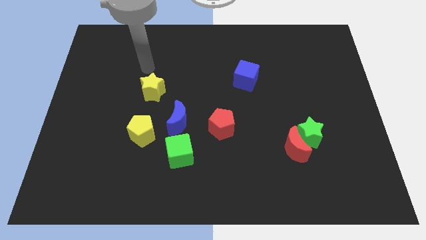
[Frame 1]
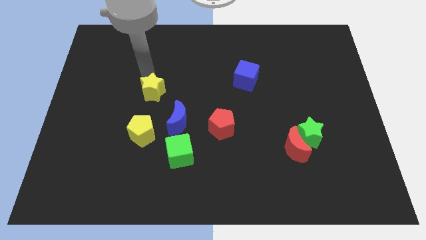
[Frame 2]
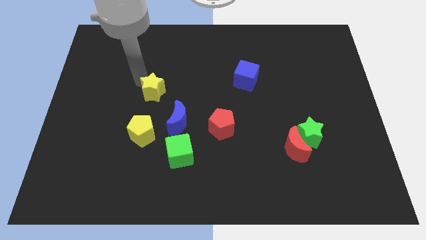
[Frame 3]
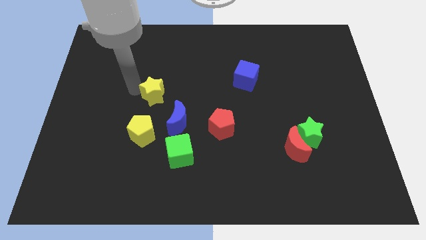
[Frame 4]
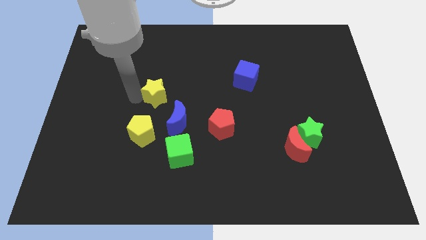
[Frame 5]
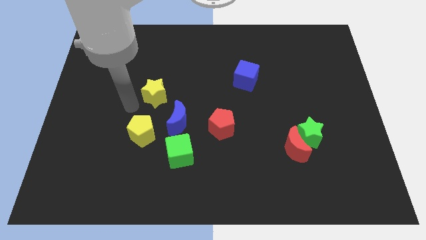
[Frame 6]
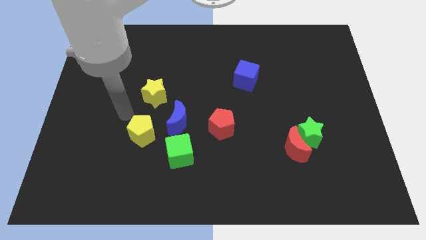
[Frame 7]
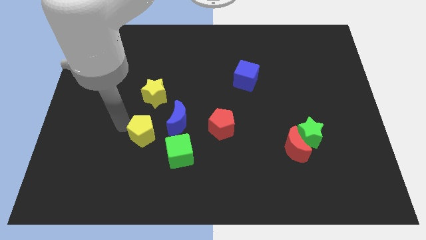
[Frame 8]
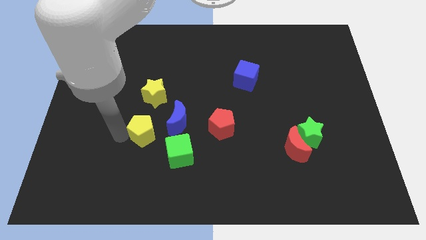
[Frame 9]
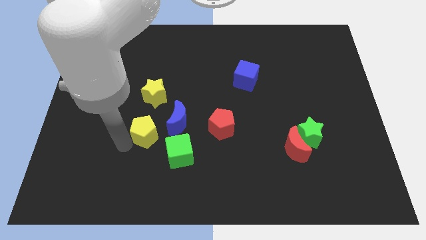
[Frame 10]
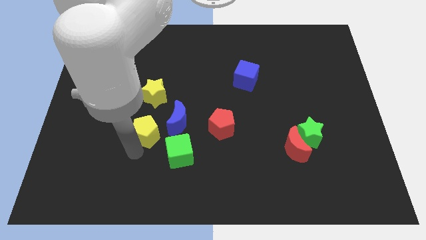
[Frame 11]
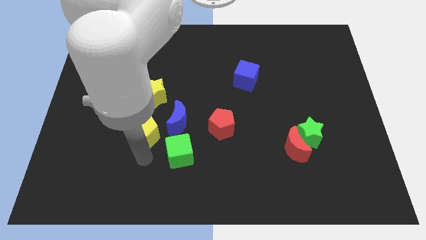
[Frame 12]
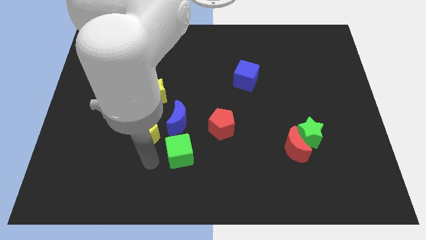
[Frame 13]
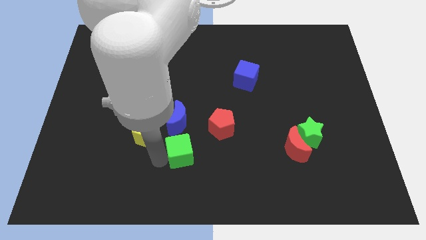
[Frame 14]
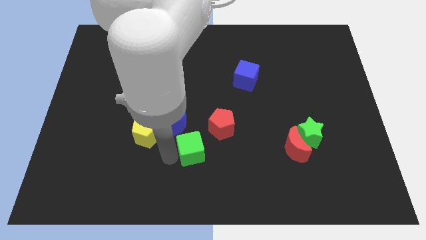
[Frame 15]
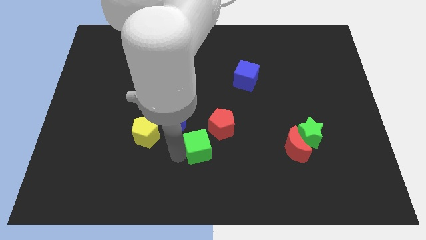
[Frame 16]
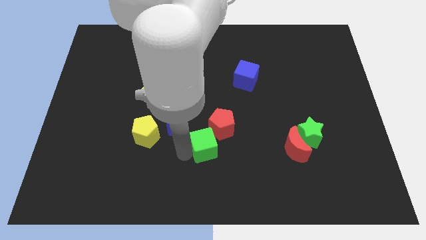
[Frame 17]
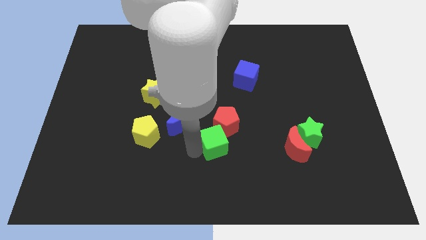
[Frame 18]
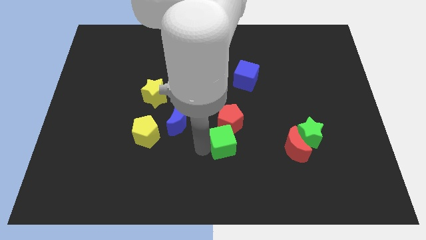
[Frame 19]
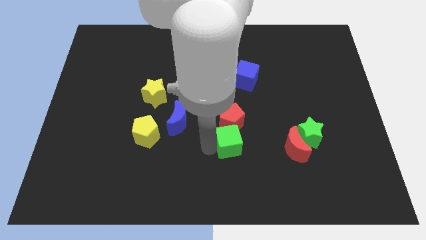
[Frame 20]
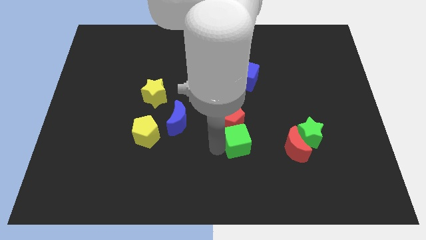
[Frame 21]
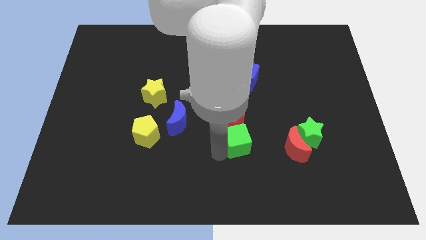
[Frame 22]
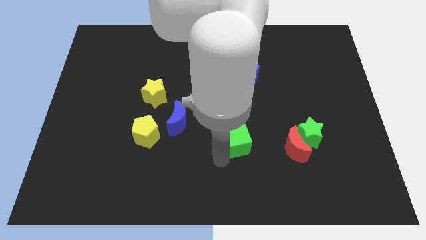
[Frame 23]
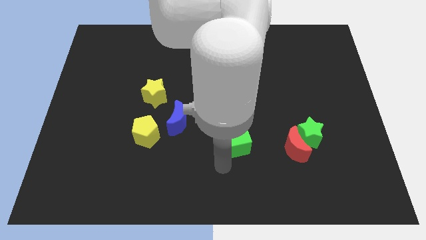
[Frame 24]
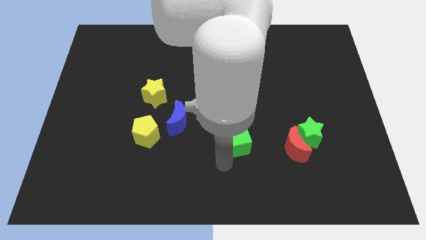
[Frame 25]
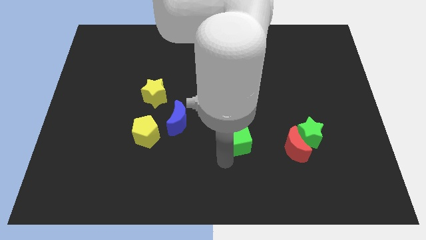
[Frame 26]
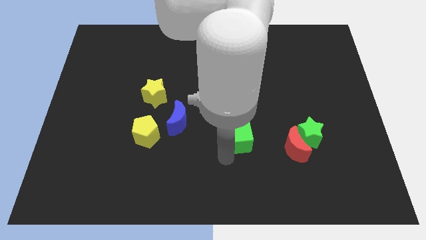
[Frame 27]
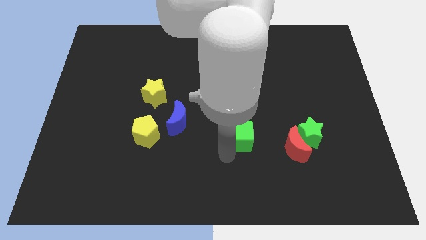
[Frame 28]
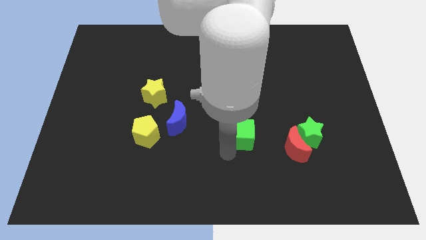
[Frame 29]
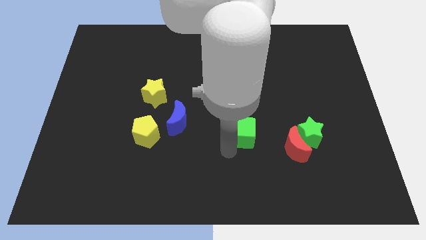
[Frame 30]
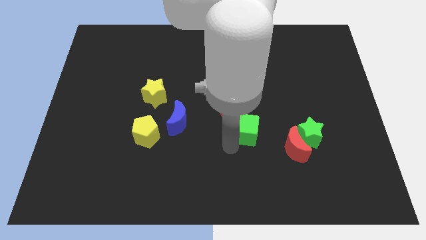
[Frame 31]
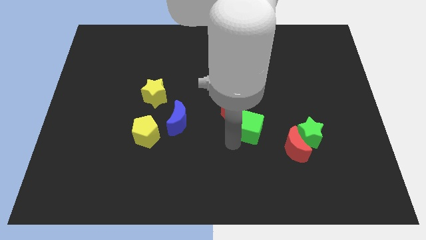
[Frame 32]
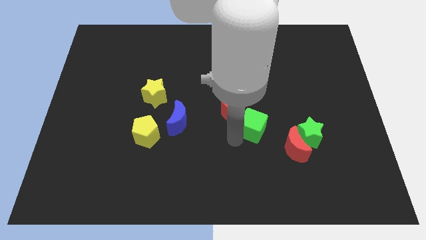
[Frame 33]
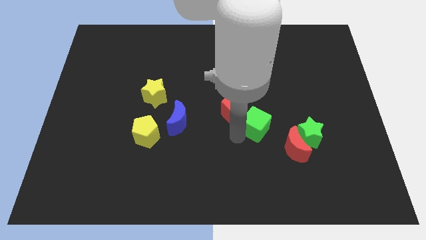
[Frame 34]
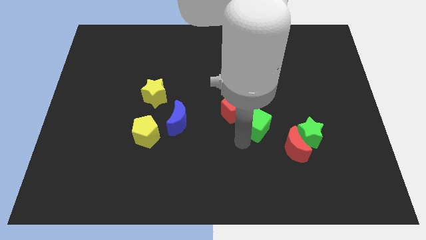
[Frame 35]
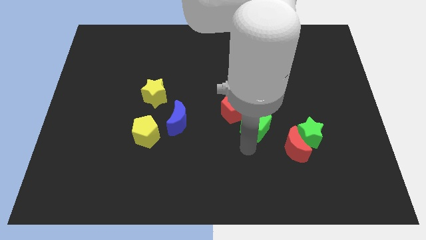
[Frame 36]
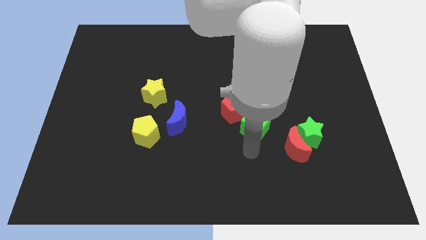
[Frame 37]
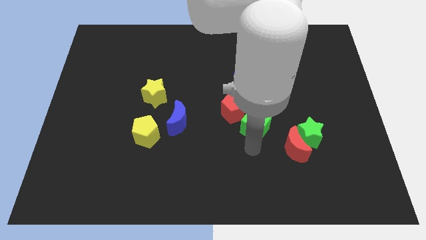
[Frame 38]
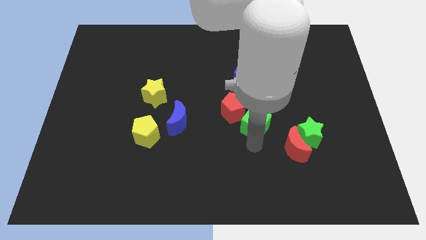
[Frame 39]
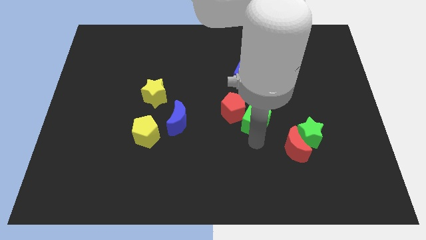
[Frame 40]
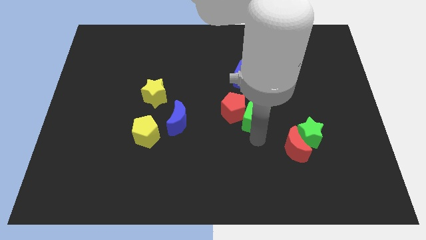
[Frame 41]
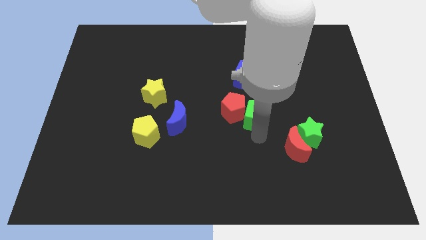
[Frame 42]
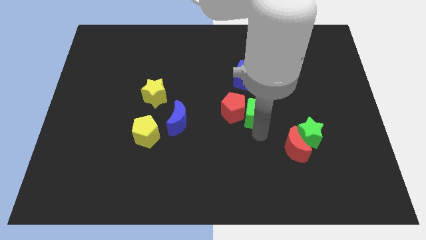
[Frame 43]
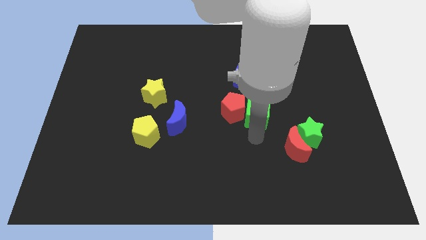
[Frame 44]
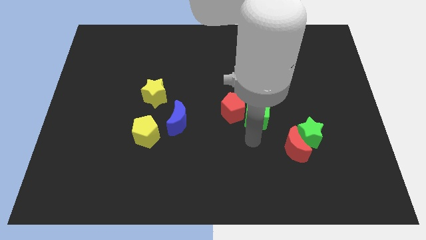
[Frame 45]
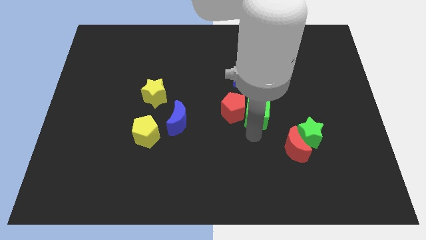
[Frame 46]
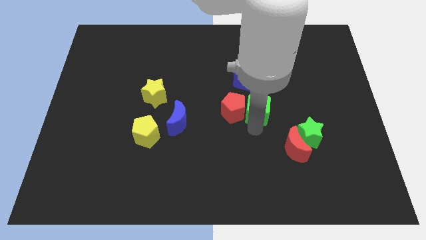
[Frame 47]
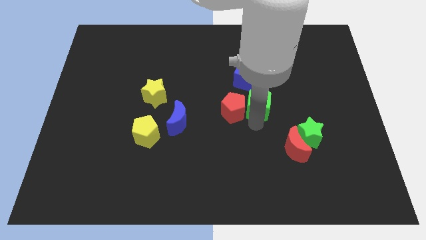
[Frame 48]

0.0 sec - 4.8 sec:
slide the green cube up and to the right diagonally

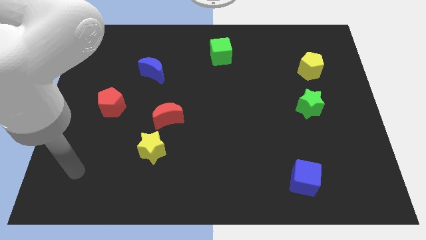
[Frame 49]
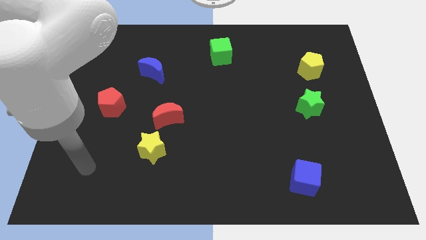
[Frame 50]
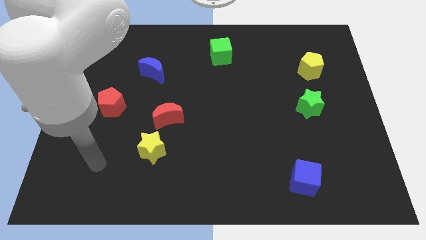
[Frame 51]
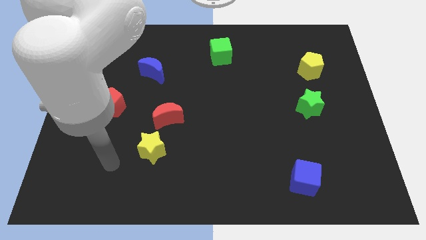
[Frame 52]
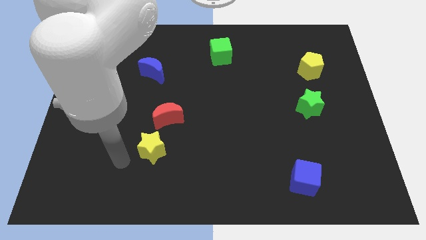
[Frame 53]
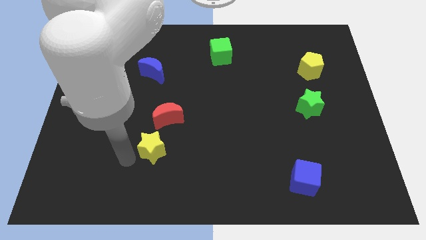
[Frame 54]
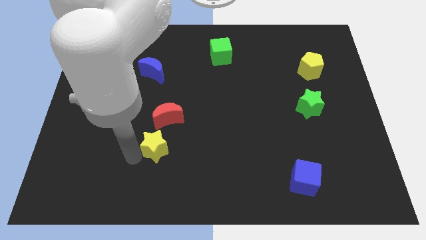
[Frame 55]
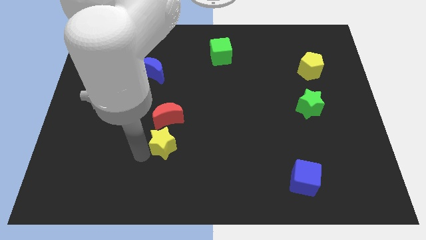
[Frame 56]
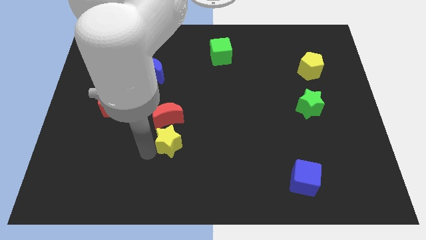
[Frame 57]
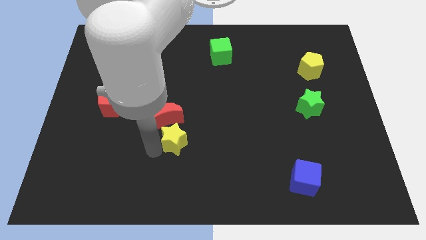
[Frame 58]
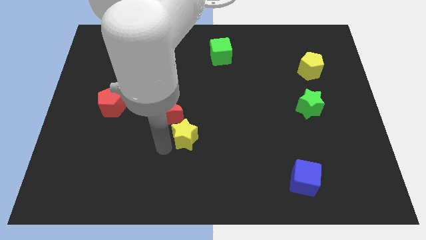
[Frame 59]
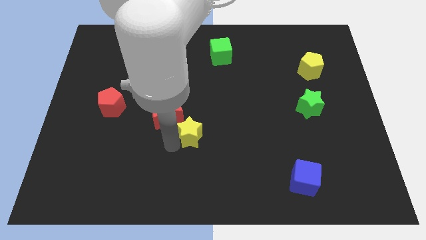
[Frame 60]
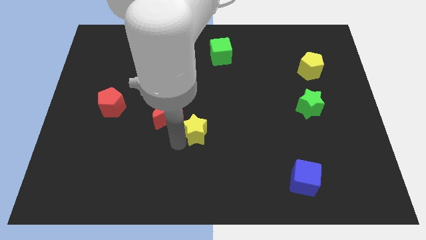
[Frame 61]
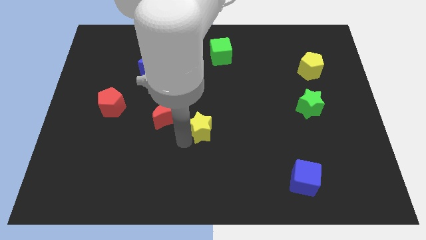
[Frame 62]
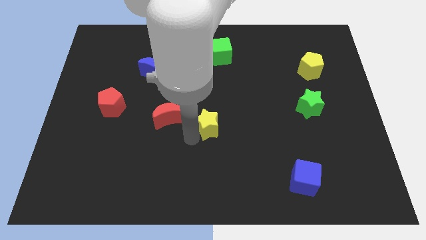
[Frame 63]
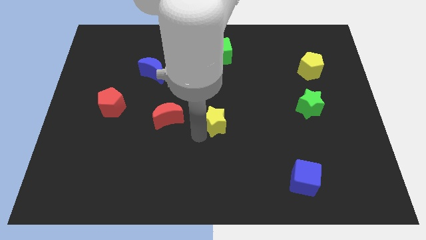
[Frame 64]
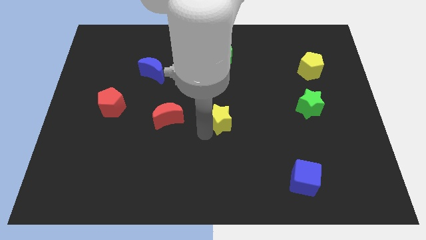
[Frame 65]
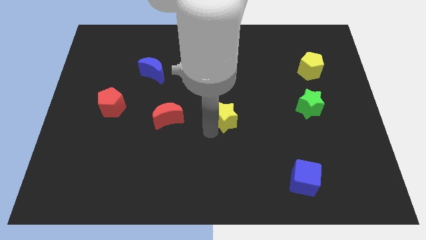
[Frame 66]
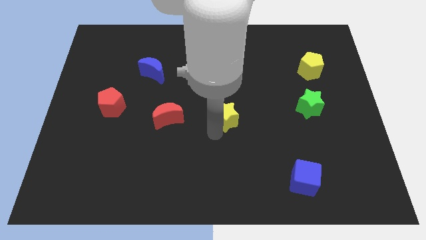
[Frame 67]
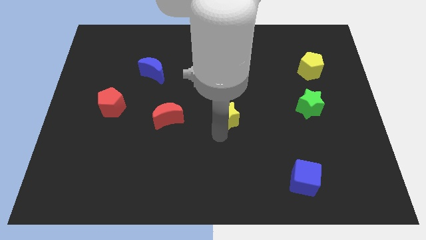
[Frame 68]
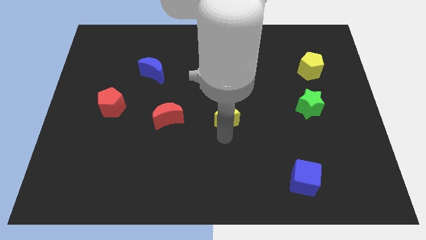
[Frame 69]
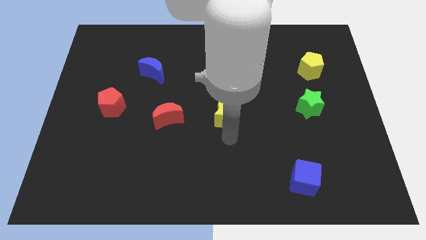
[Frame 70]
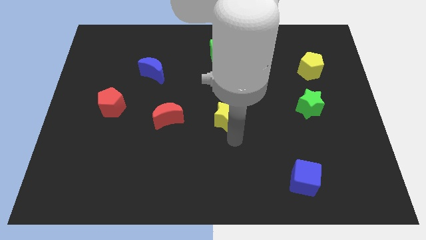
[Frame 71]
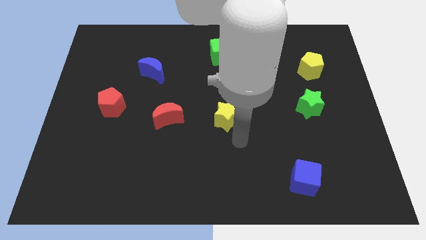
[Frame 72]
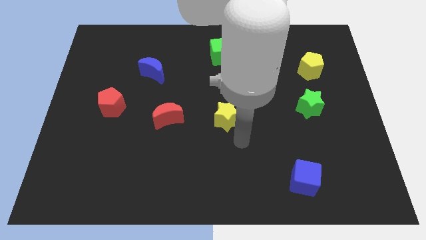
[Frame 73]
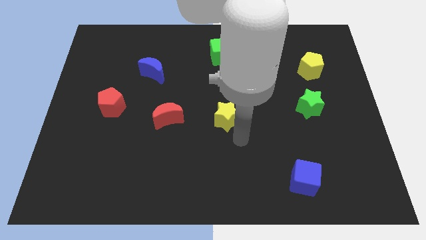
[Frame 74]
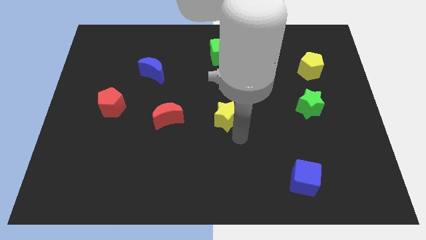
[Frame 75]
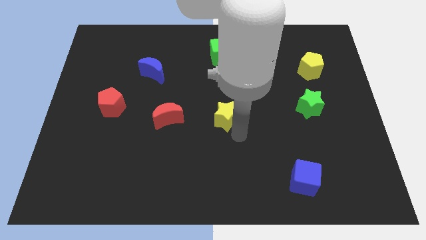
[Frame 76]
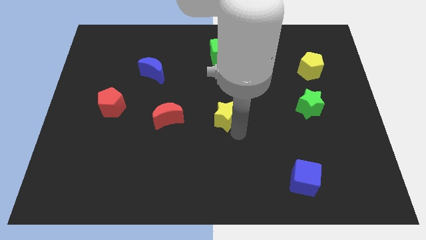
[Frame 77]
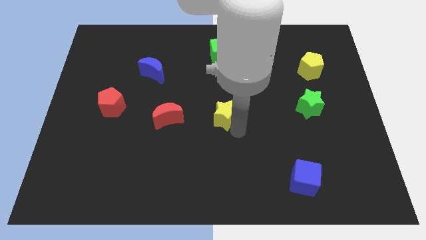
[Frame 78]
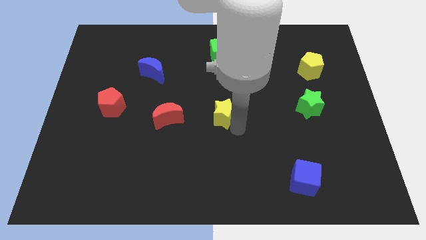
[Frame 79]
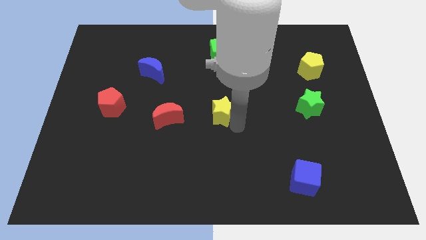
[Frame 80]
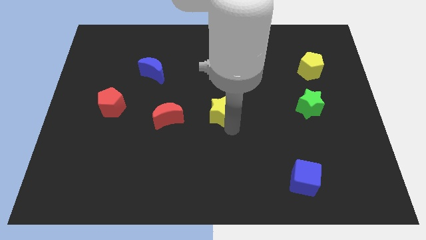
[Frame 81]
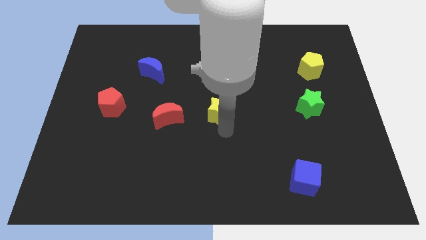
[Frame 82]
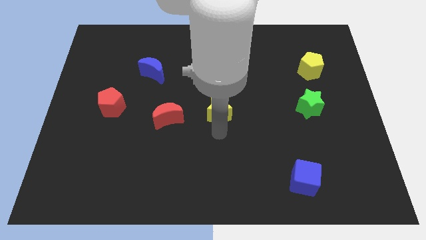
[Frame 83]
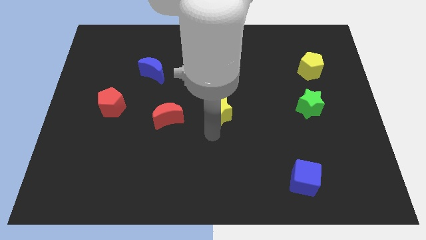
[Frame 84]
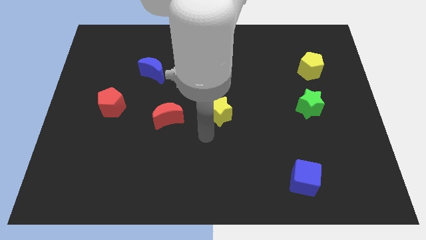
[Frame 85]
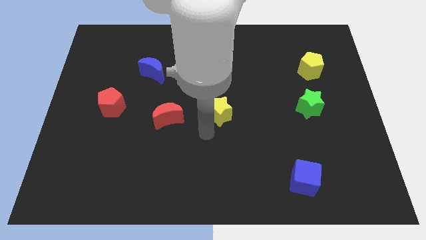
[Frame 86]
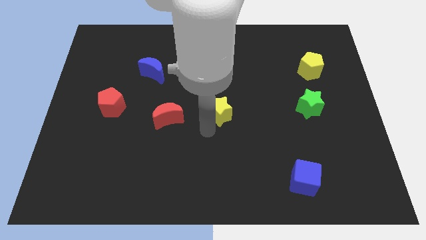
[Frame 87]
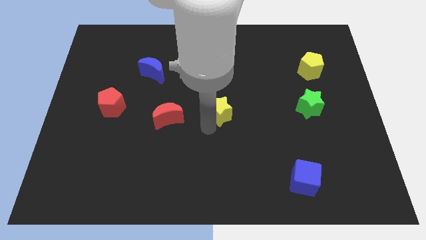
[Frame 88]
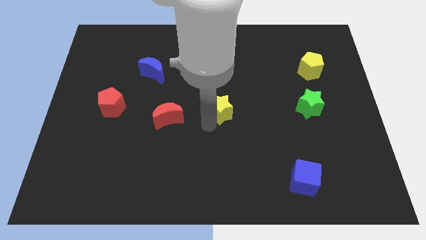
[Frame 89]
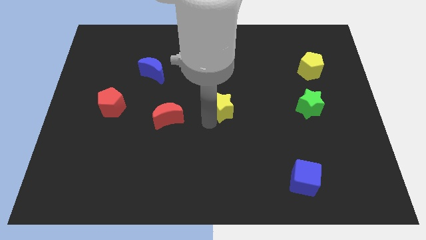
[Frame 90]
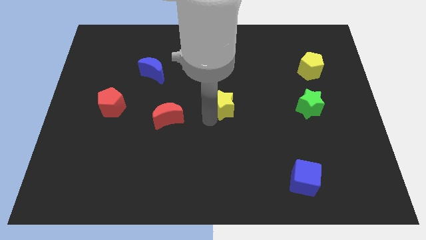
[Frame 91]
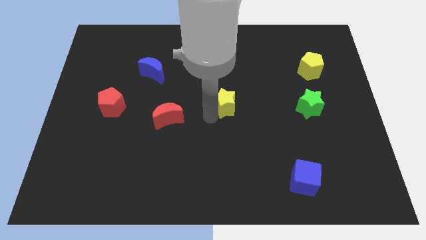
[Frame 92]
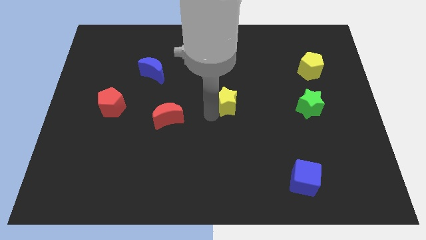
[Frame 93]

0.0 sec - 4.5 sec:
move the yellow star diagonally upwards and right
